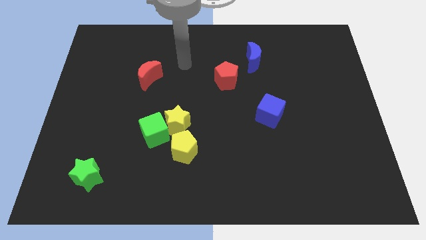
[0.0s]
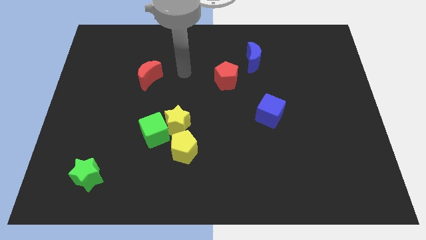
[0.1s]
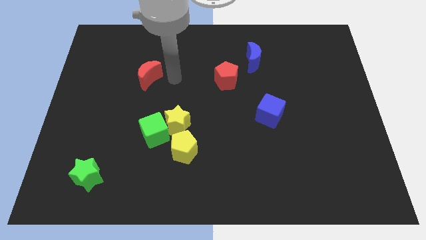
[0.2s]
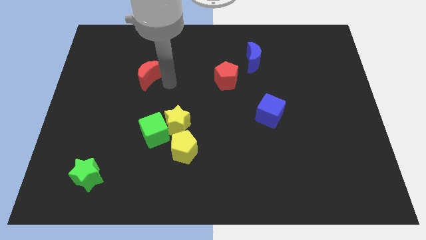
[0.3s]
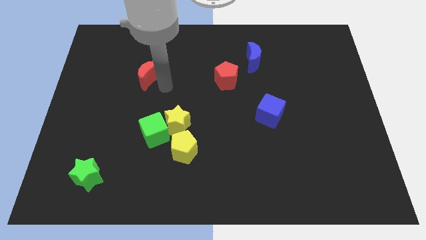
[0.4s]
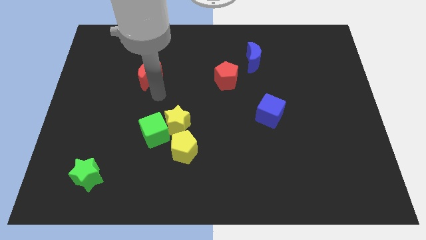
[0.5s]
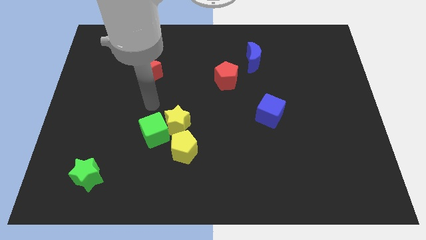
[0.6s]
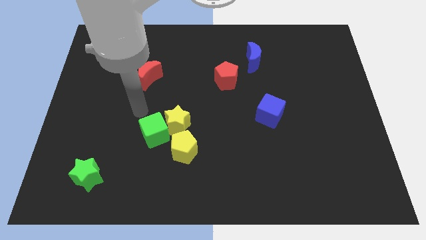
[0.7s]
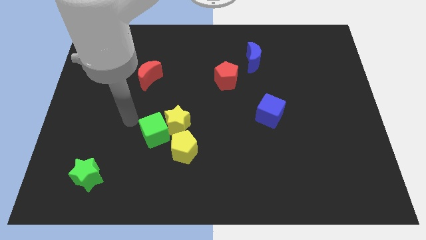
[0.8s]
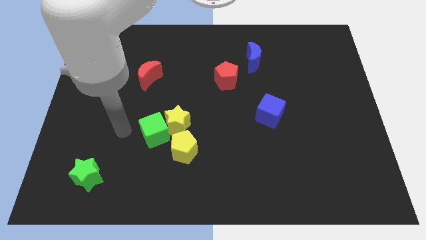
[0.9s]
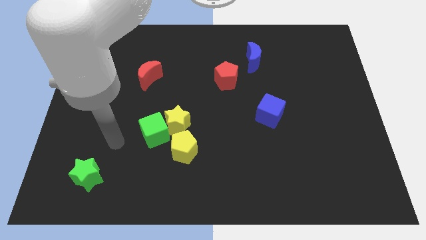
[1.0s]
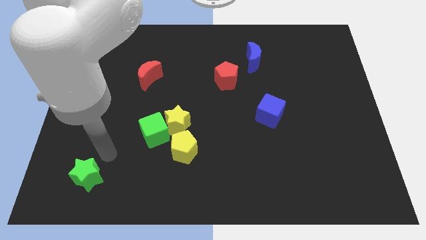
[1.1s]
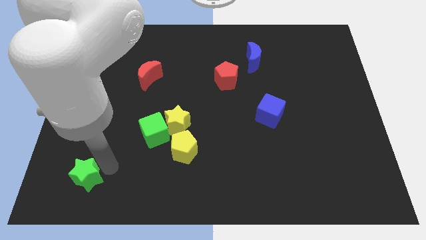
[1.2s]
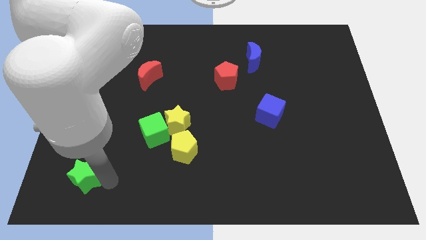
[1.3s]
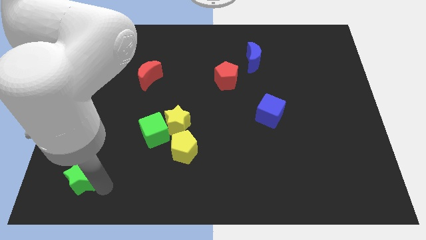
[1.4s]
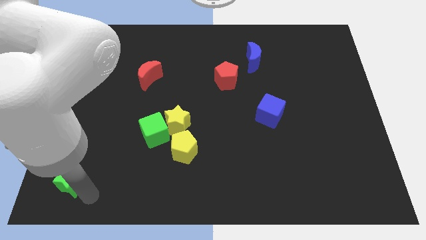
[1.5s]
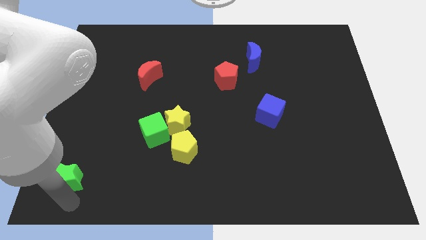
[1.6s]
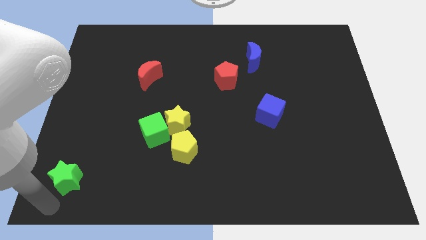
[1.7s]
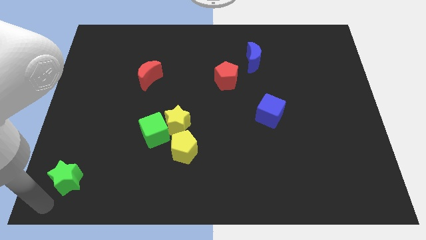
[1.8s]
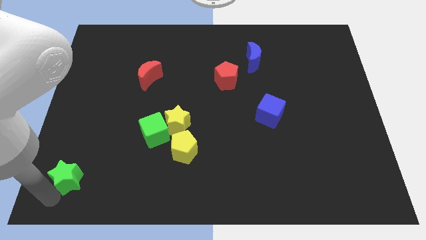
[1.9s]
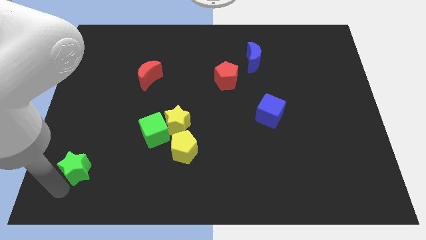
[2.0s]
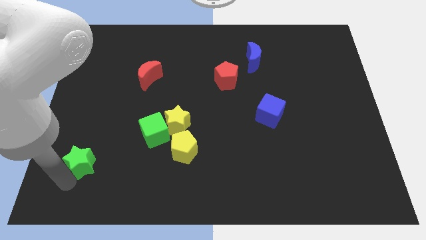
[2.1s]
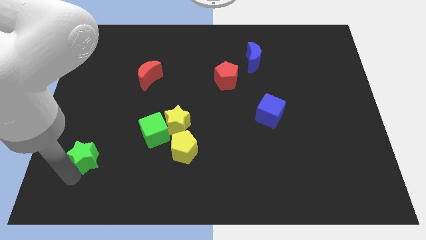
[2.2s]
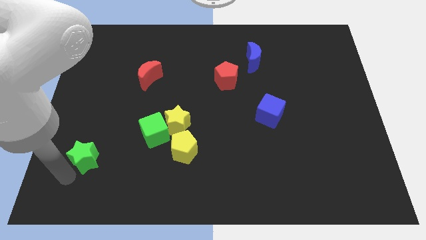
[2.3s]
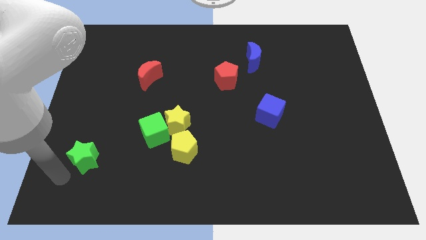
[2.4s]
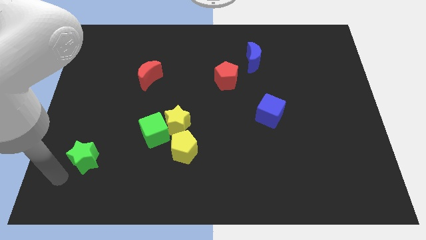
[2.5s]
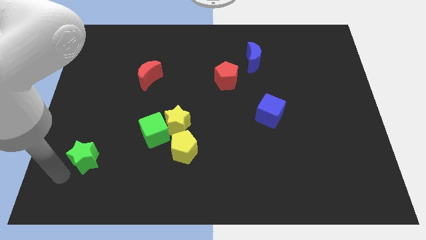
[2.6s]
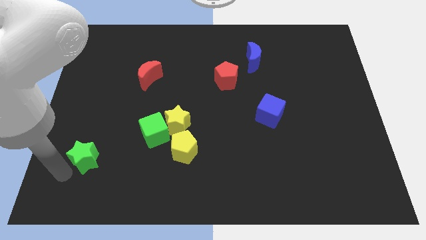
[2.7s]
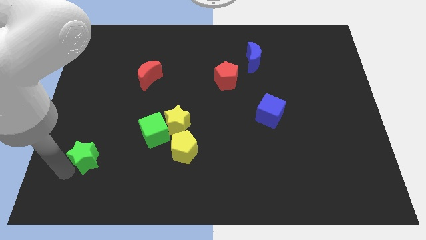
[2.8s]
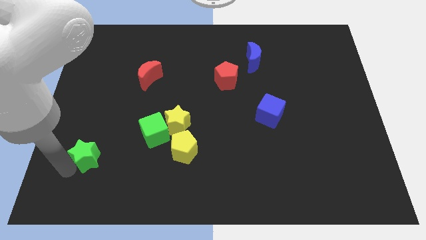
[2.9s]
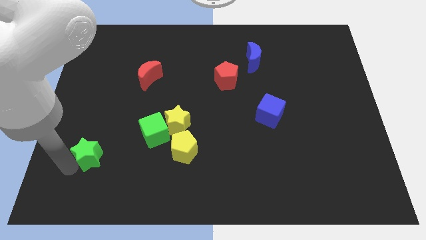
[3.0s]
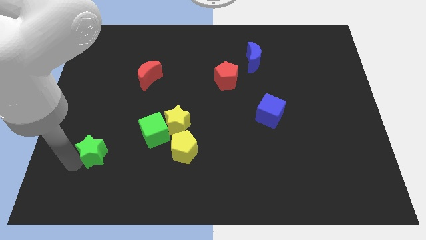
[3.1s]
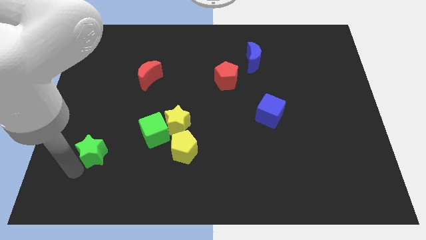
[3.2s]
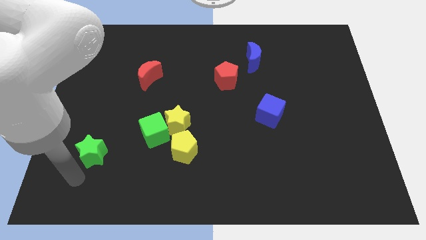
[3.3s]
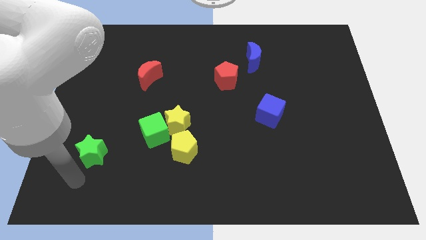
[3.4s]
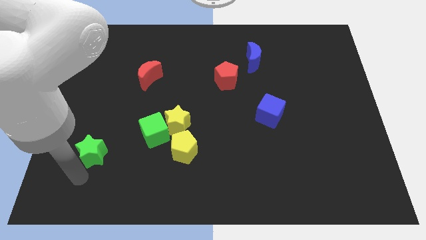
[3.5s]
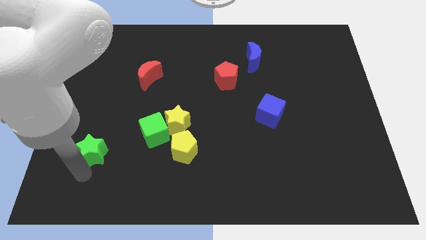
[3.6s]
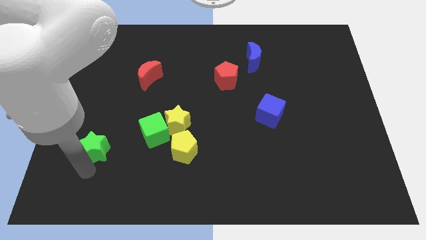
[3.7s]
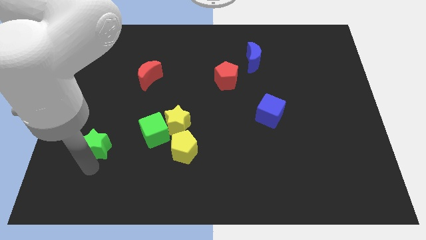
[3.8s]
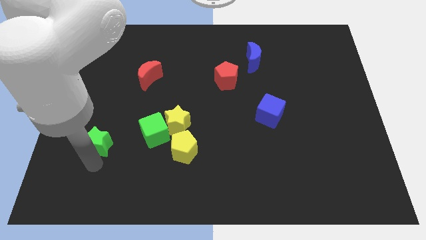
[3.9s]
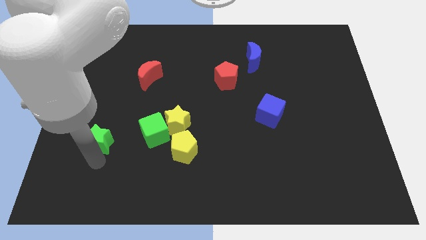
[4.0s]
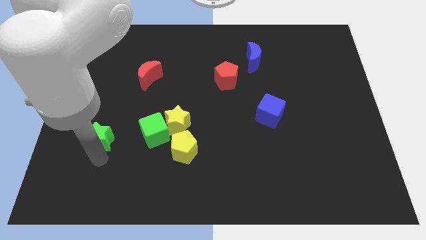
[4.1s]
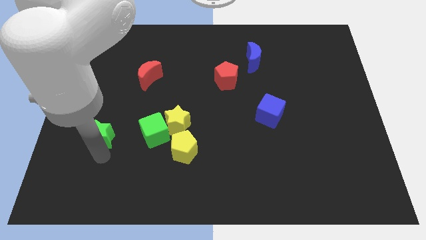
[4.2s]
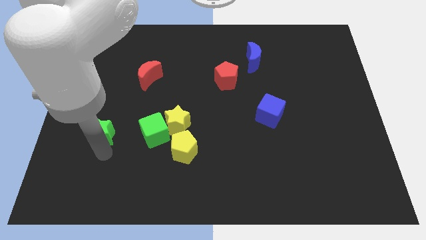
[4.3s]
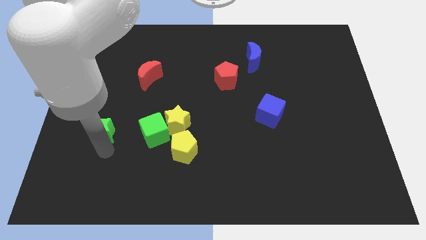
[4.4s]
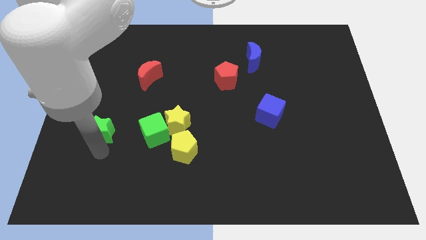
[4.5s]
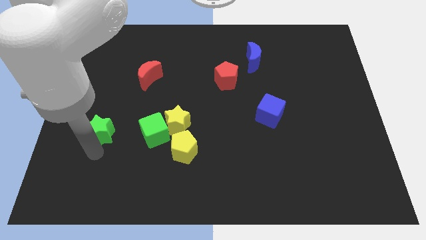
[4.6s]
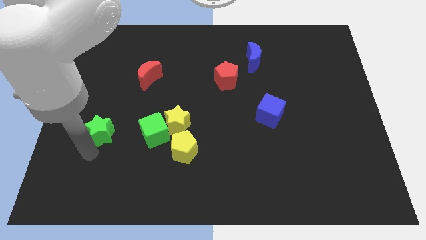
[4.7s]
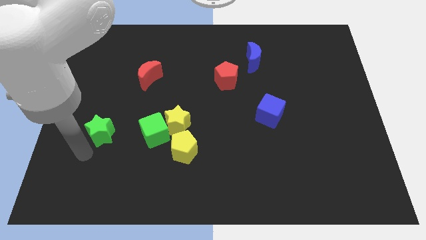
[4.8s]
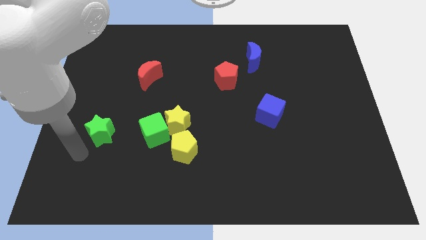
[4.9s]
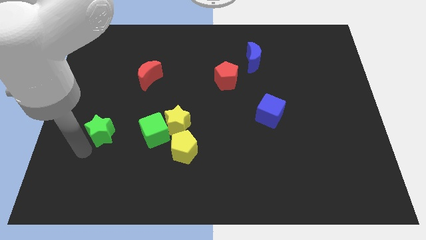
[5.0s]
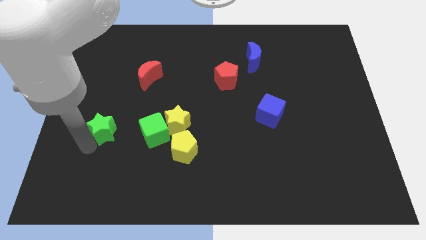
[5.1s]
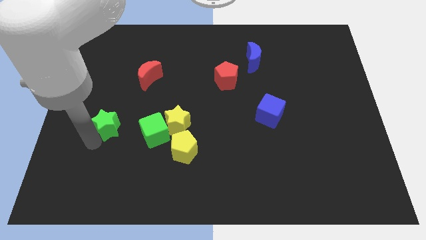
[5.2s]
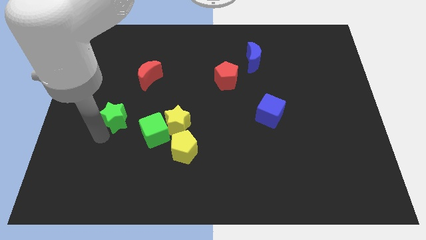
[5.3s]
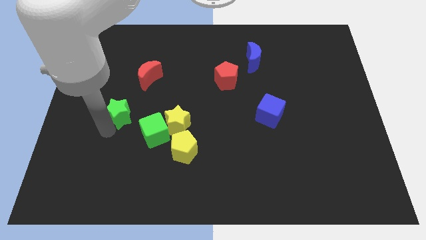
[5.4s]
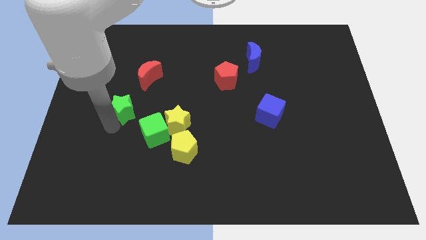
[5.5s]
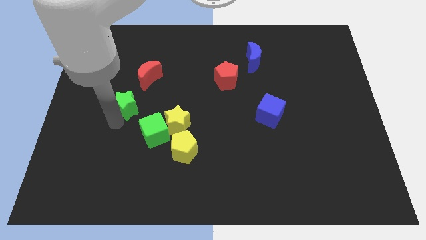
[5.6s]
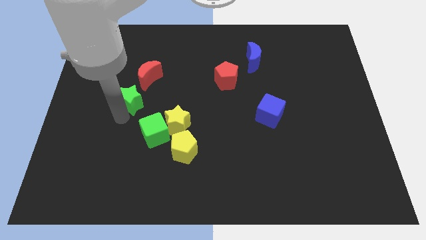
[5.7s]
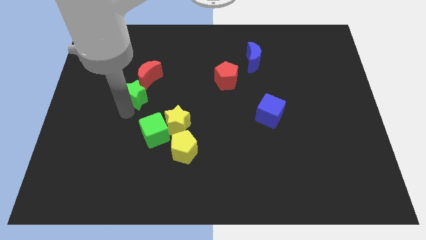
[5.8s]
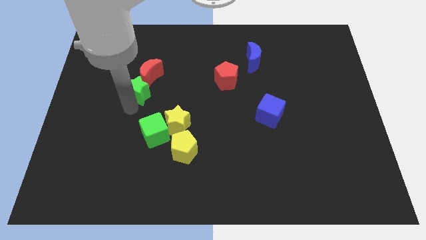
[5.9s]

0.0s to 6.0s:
push the green star to the red moon

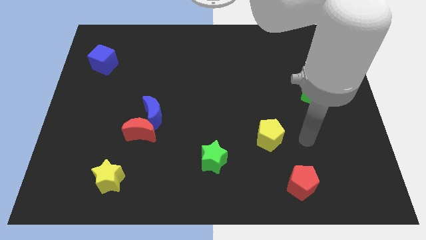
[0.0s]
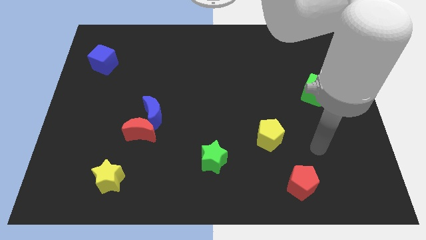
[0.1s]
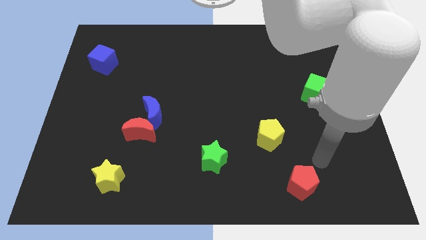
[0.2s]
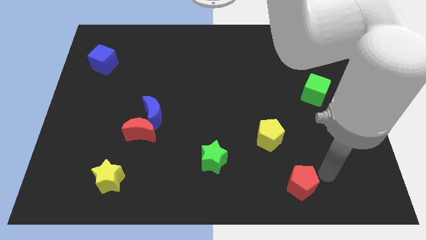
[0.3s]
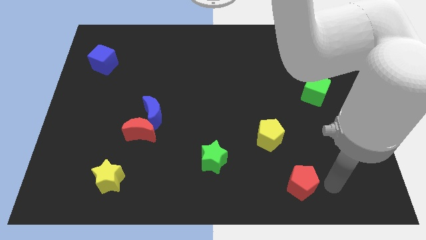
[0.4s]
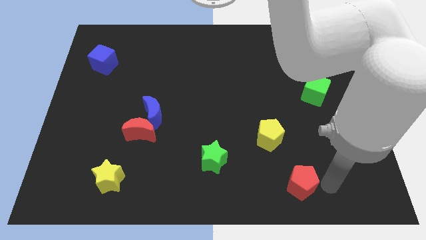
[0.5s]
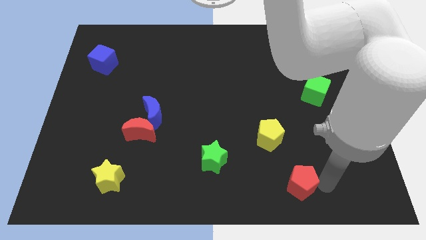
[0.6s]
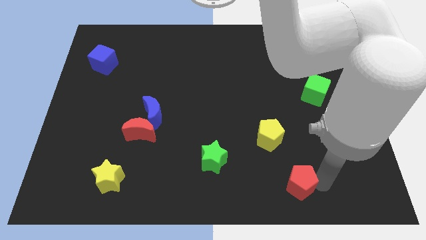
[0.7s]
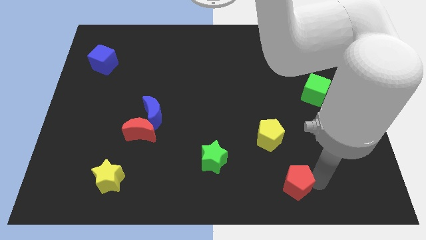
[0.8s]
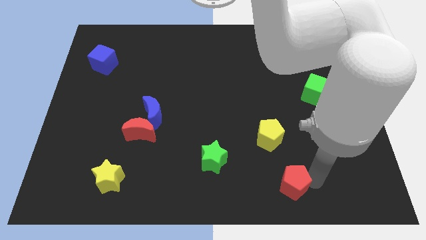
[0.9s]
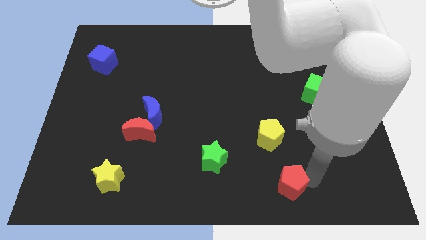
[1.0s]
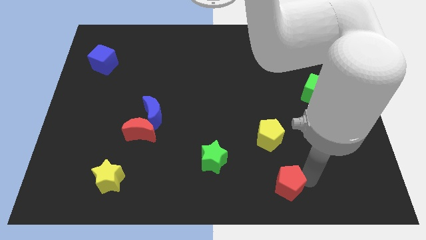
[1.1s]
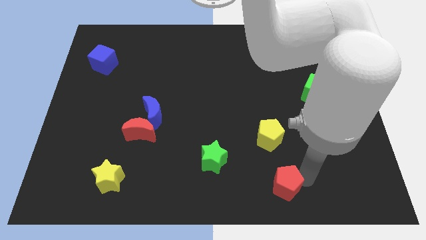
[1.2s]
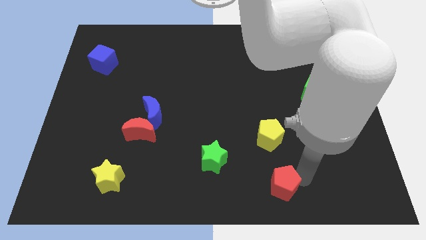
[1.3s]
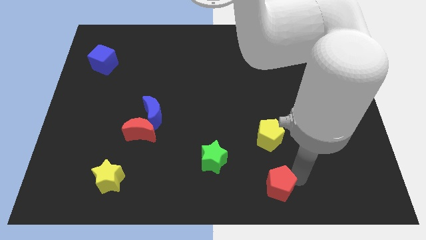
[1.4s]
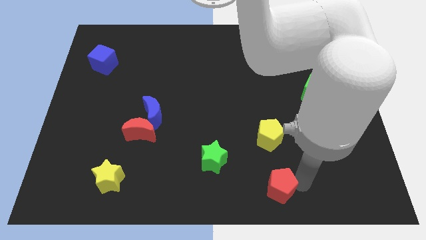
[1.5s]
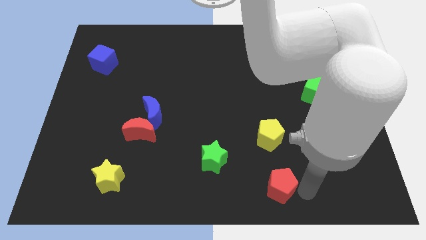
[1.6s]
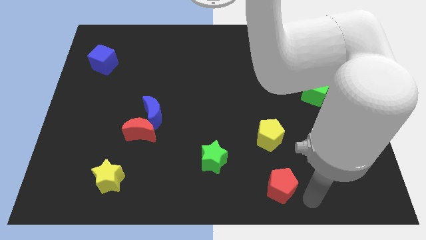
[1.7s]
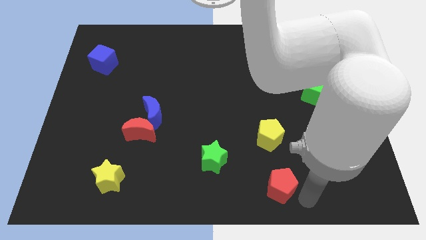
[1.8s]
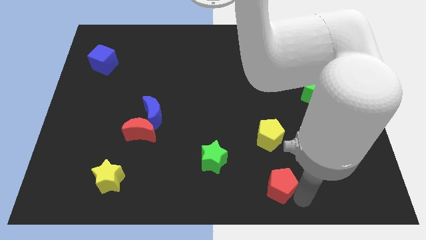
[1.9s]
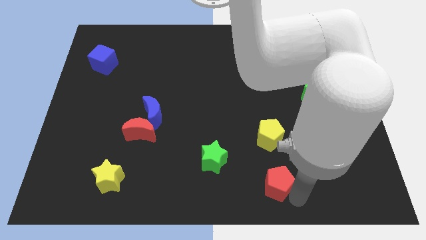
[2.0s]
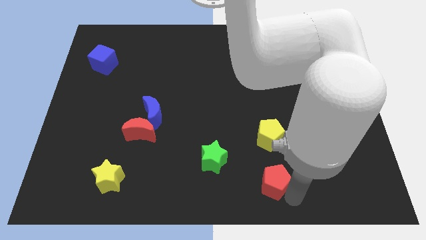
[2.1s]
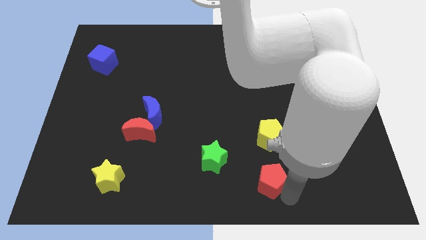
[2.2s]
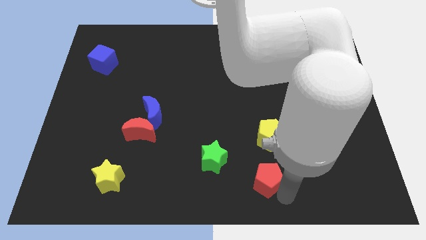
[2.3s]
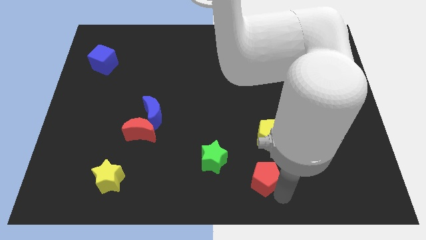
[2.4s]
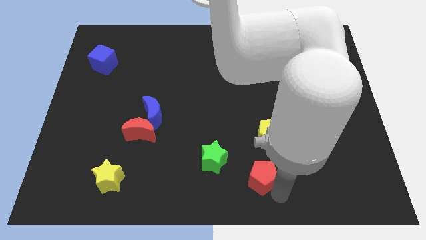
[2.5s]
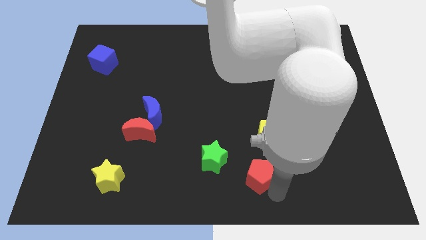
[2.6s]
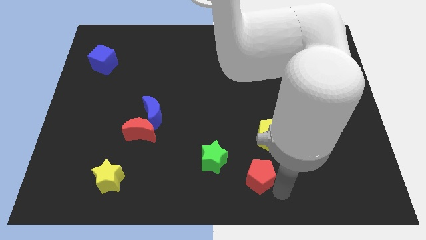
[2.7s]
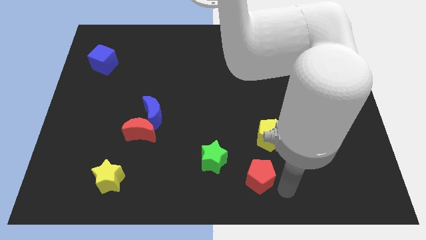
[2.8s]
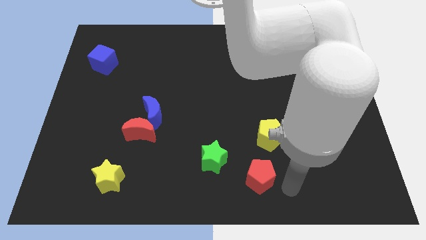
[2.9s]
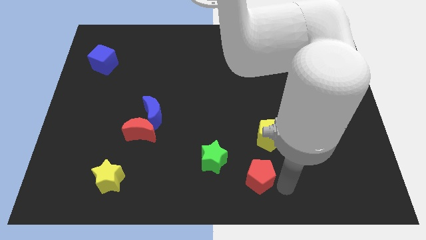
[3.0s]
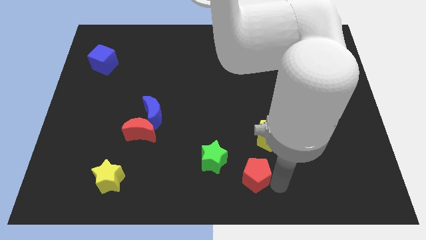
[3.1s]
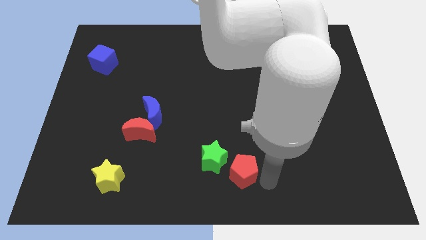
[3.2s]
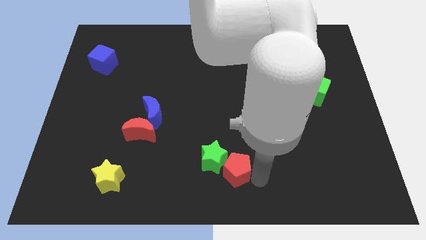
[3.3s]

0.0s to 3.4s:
move the red pentagon close to the green star
